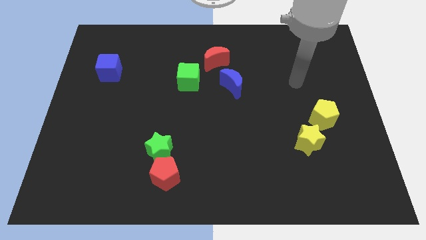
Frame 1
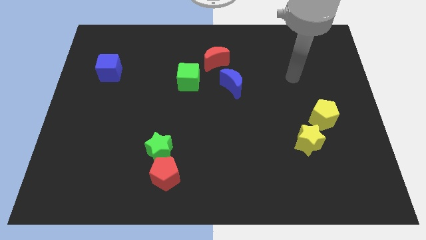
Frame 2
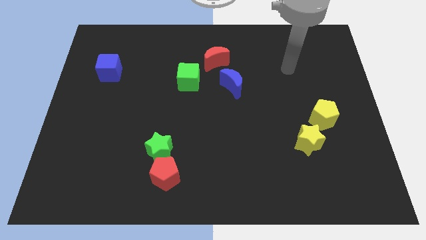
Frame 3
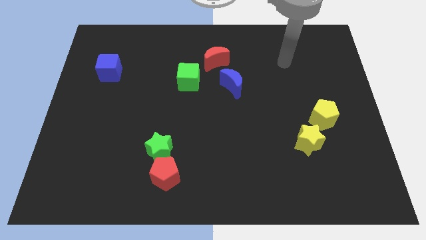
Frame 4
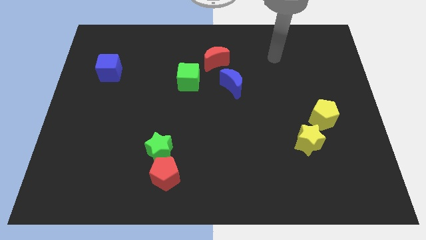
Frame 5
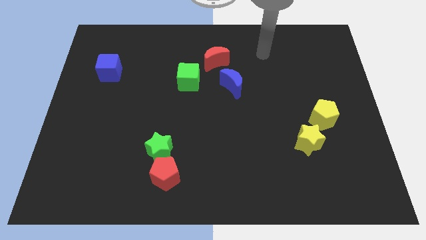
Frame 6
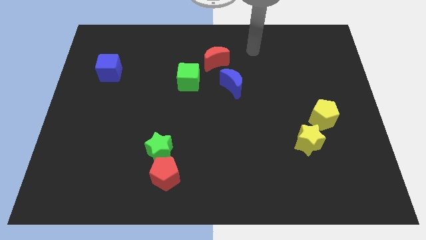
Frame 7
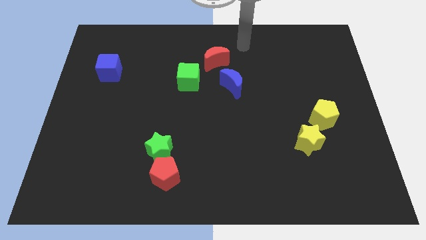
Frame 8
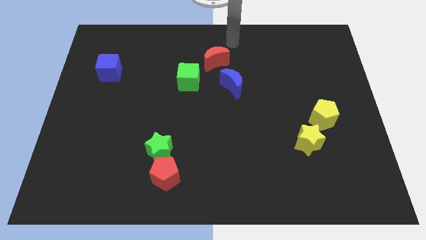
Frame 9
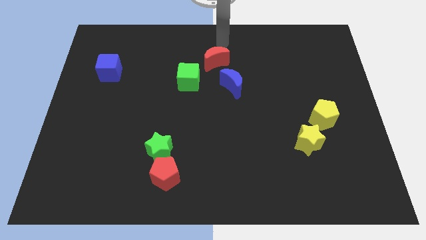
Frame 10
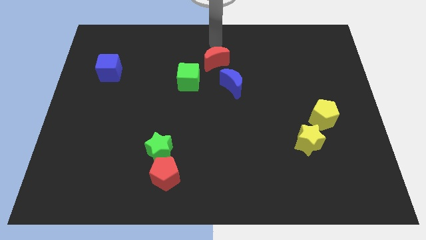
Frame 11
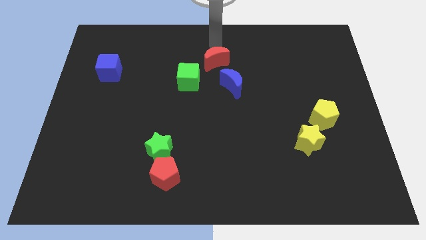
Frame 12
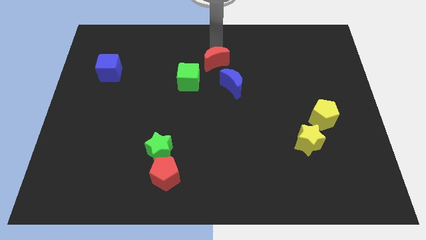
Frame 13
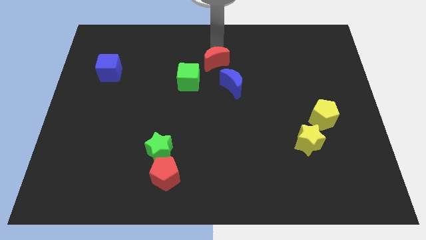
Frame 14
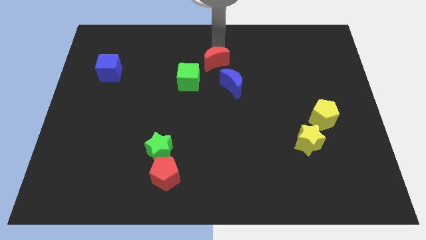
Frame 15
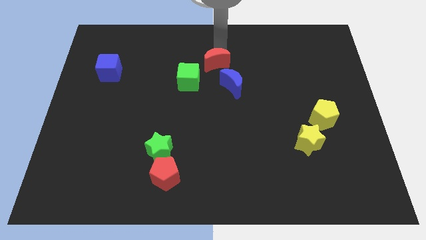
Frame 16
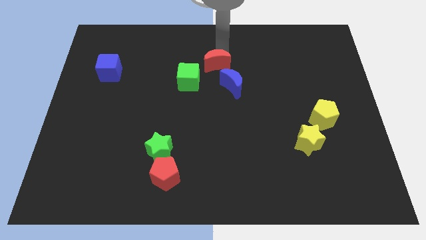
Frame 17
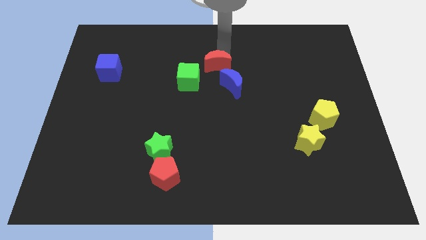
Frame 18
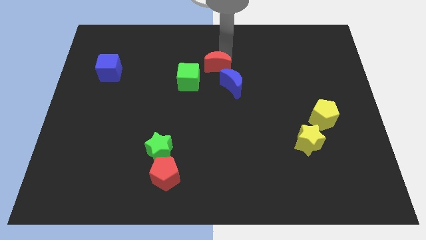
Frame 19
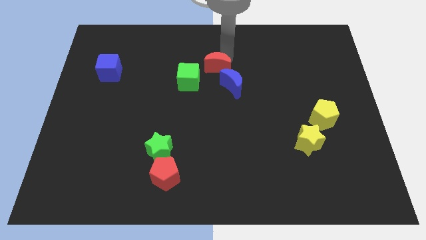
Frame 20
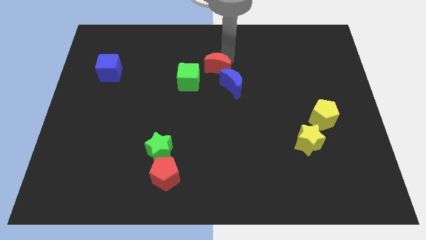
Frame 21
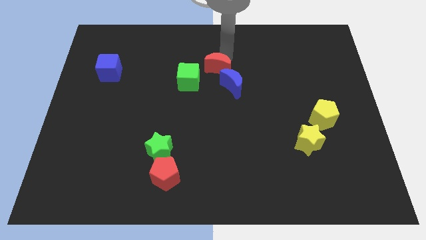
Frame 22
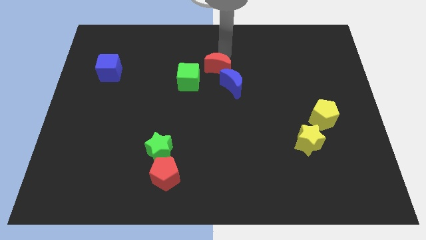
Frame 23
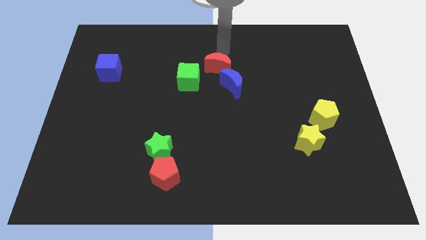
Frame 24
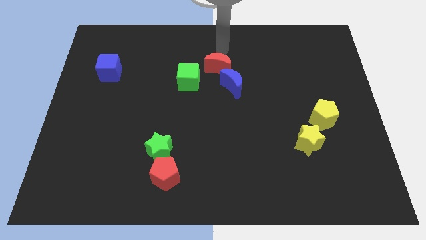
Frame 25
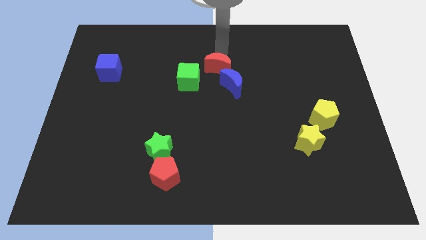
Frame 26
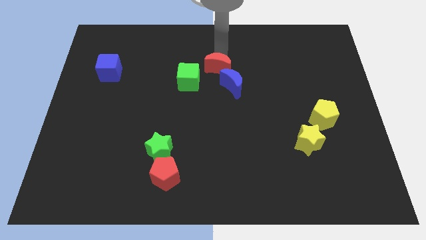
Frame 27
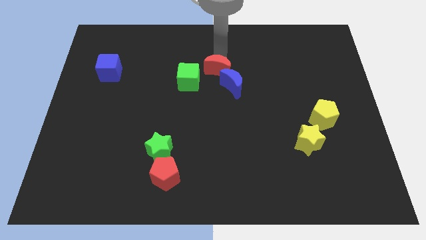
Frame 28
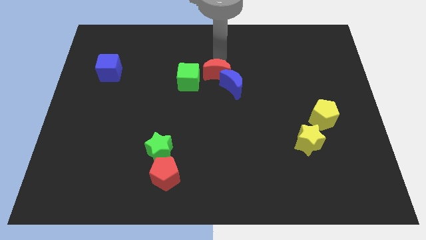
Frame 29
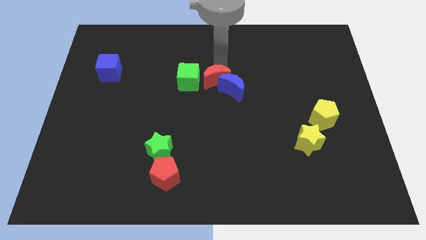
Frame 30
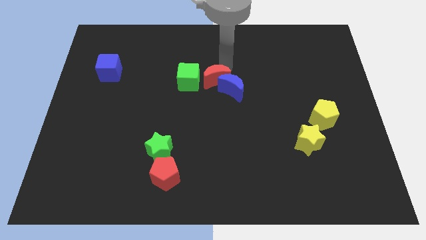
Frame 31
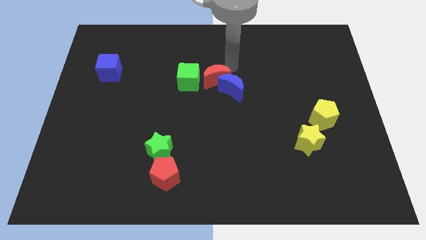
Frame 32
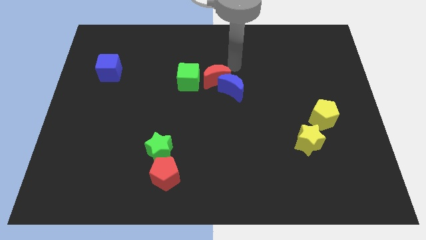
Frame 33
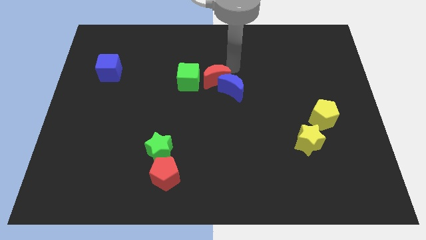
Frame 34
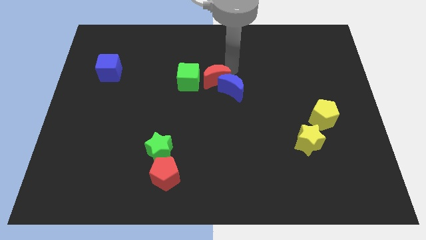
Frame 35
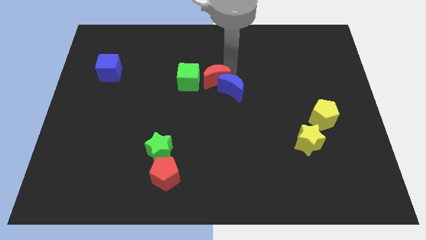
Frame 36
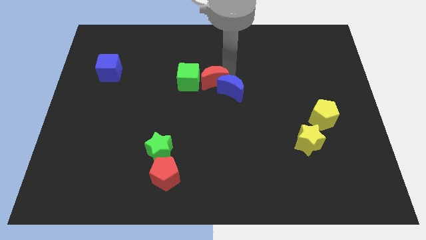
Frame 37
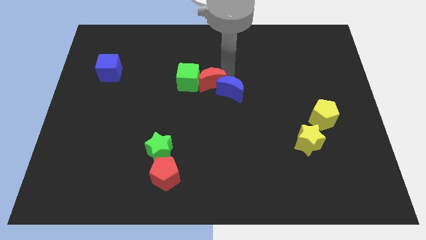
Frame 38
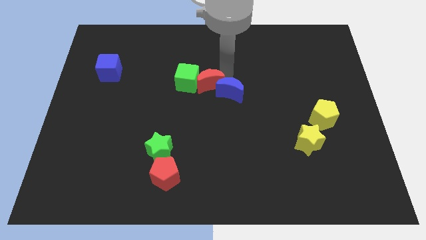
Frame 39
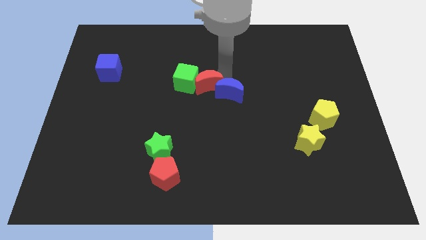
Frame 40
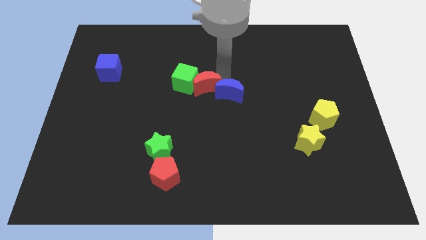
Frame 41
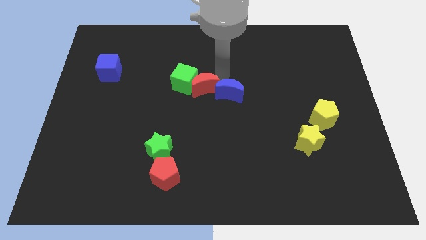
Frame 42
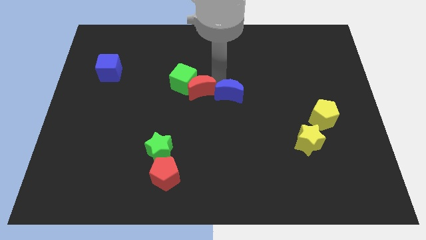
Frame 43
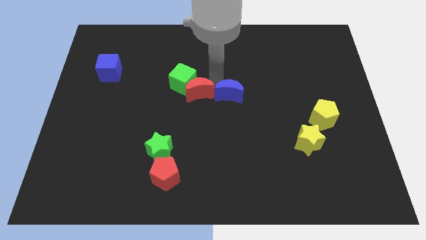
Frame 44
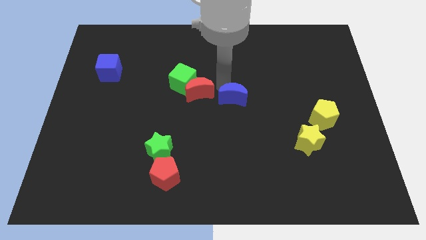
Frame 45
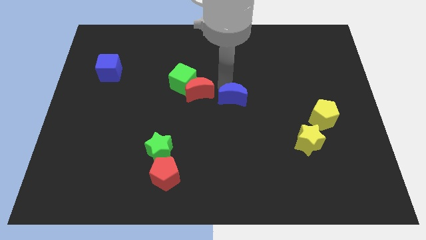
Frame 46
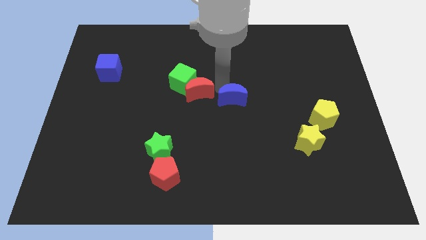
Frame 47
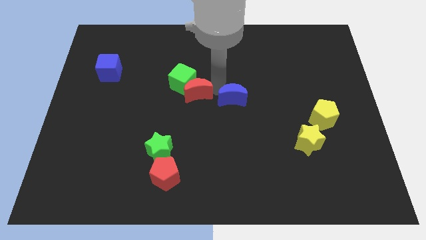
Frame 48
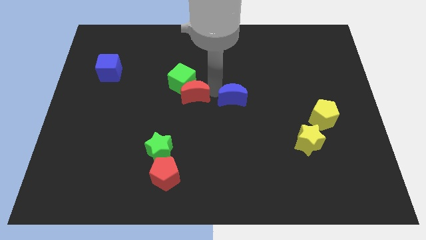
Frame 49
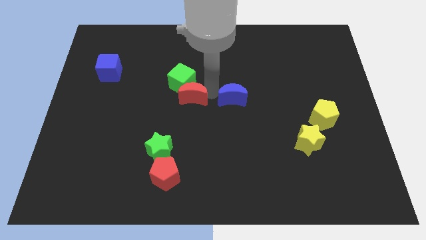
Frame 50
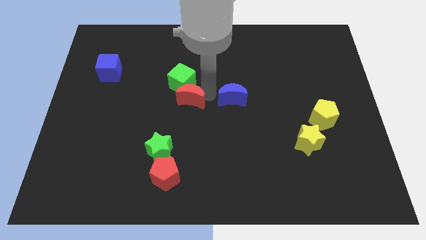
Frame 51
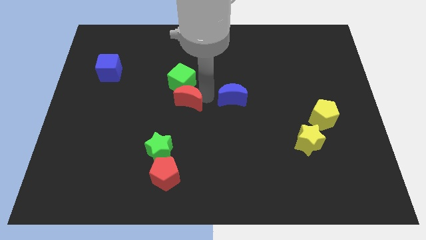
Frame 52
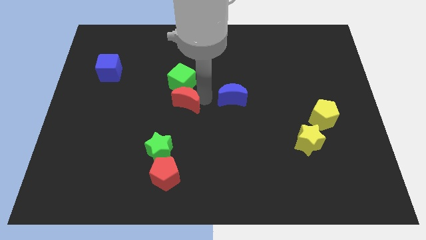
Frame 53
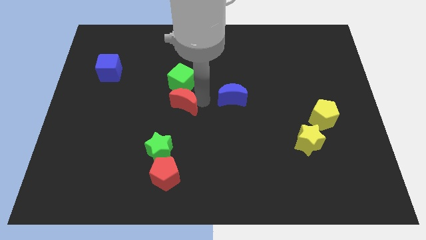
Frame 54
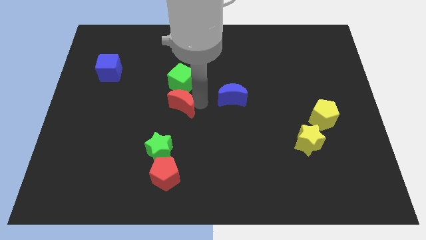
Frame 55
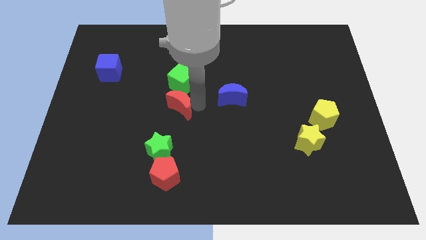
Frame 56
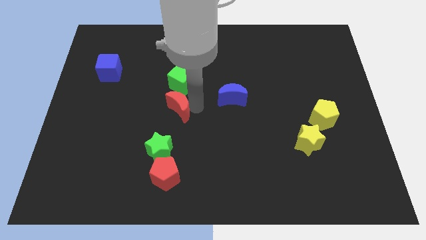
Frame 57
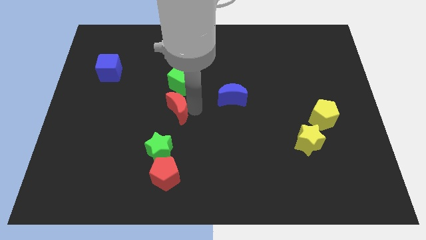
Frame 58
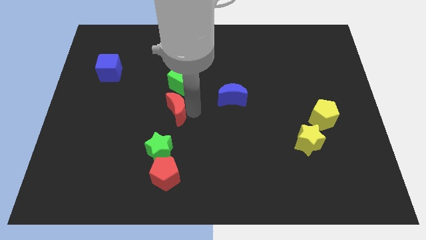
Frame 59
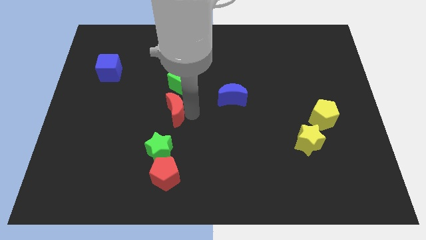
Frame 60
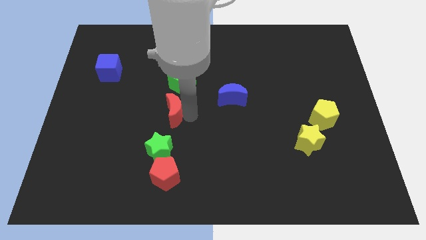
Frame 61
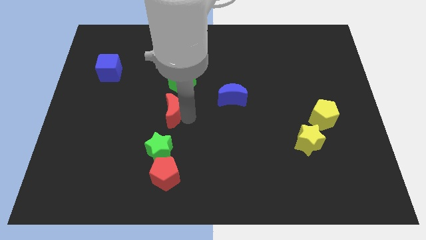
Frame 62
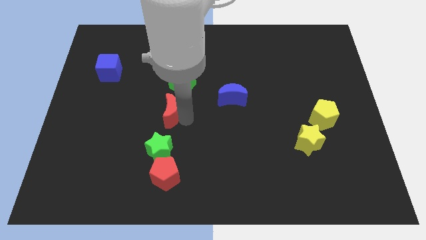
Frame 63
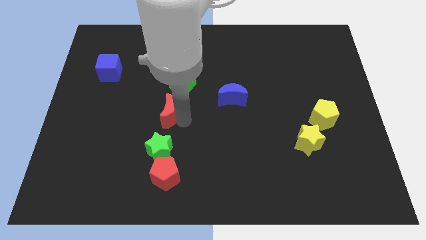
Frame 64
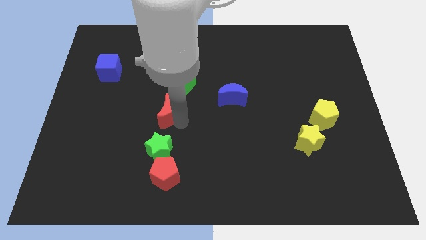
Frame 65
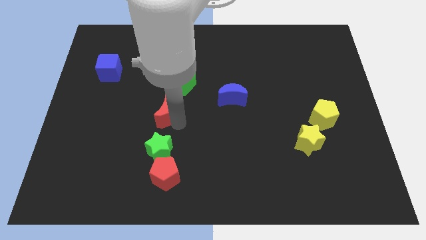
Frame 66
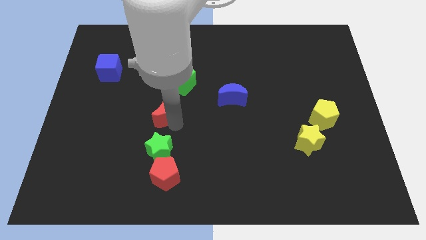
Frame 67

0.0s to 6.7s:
slide the red moon to the bottom left of the green cube

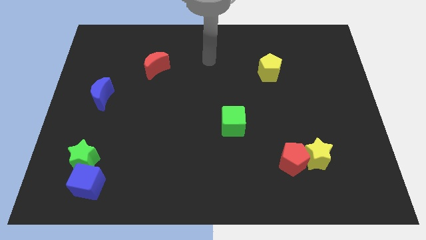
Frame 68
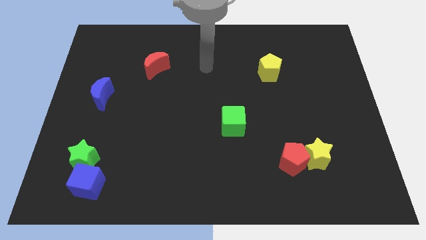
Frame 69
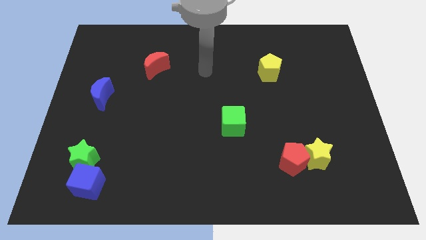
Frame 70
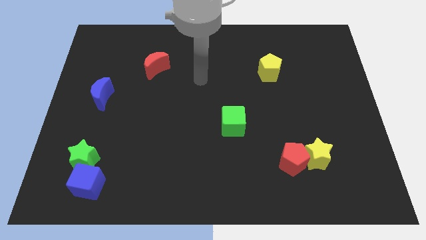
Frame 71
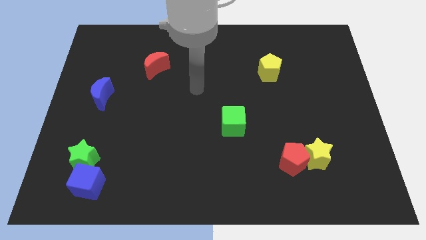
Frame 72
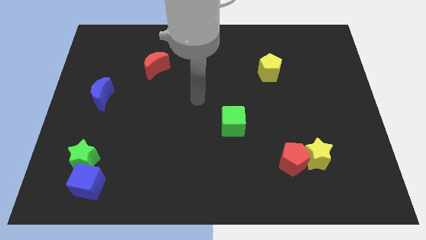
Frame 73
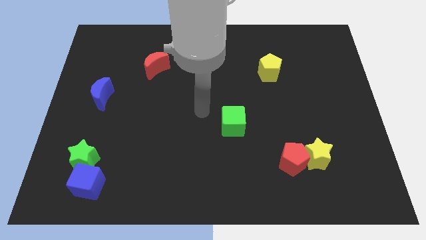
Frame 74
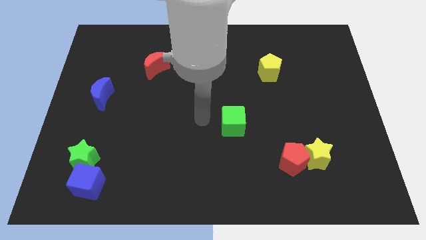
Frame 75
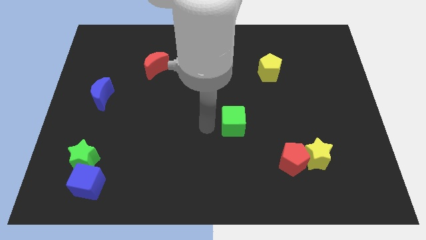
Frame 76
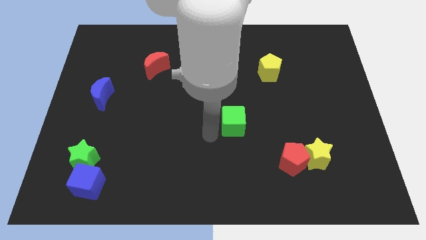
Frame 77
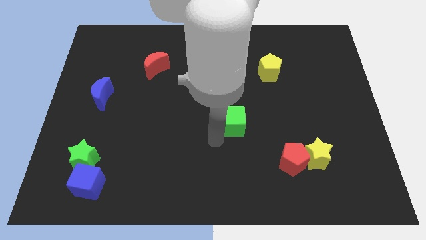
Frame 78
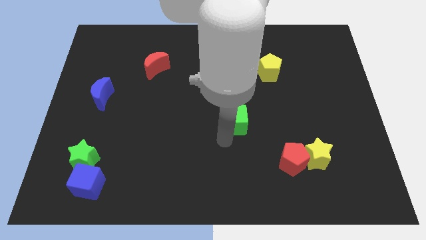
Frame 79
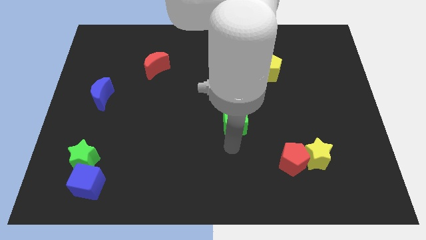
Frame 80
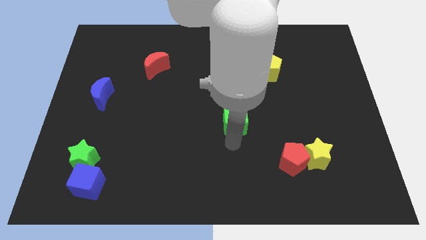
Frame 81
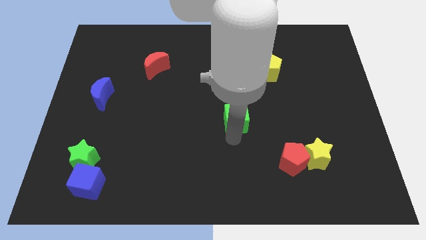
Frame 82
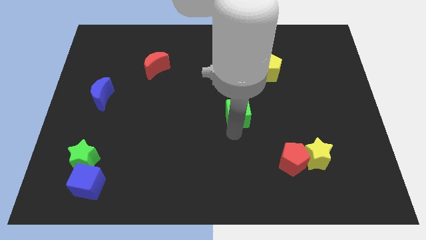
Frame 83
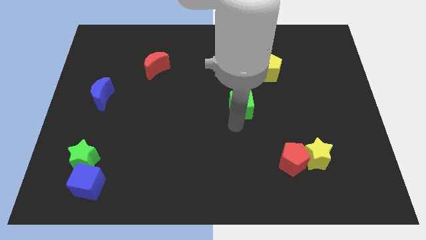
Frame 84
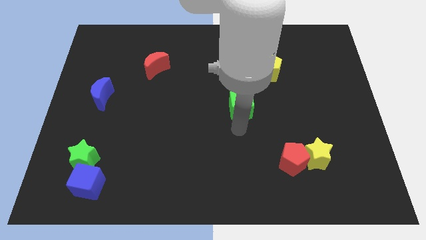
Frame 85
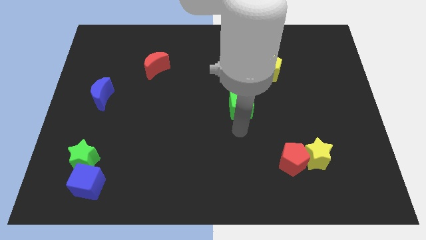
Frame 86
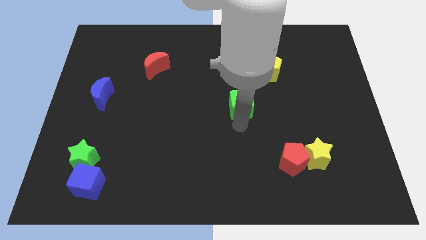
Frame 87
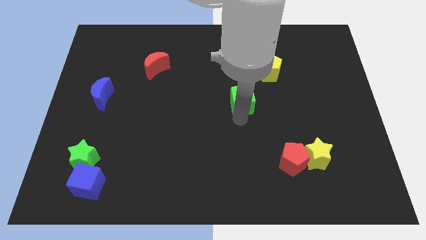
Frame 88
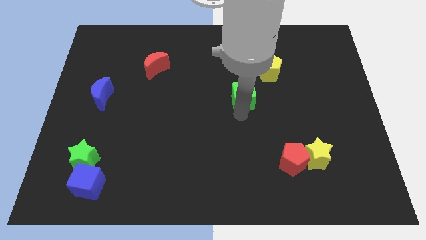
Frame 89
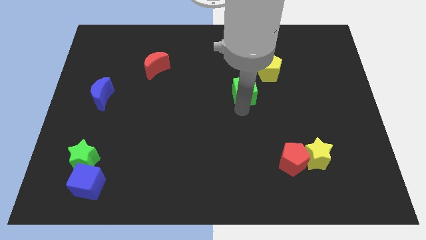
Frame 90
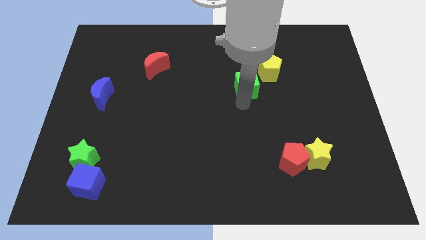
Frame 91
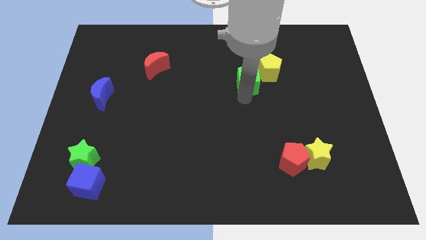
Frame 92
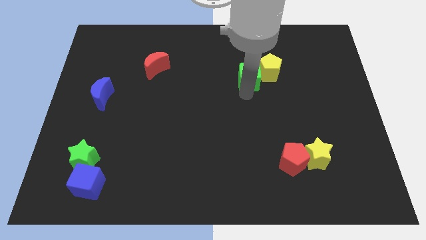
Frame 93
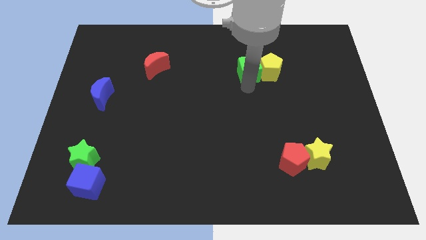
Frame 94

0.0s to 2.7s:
push the green cube diagonally up and to the left of the yellow pentagon
